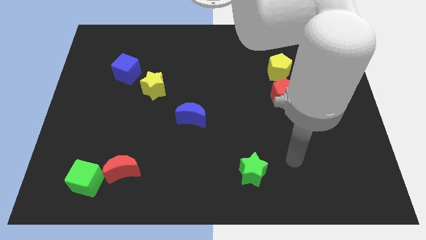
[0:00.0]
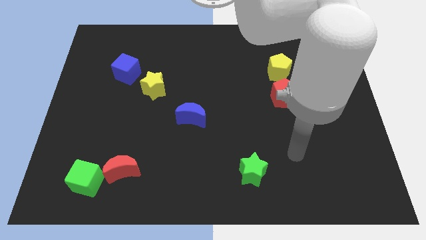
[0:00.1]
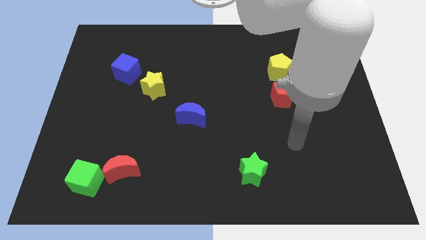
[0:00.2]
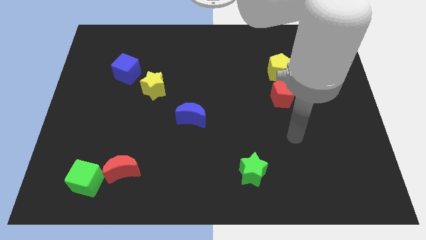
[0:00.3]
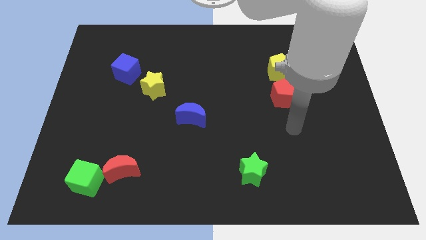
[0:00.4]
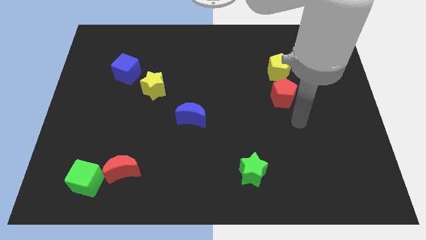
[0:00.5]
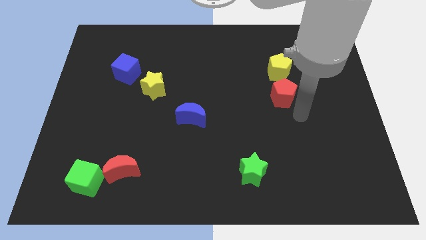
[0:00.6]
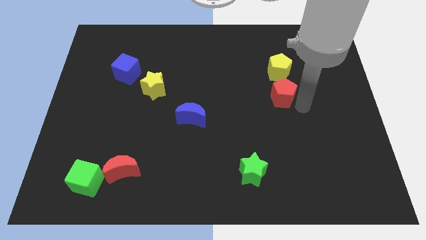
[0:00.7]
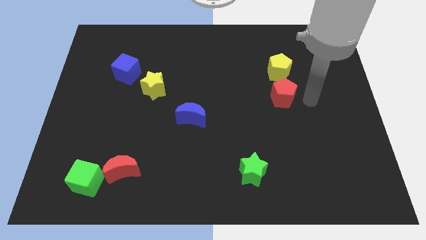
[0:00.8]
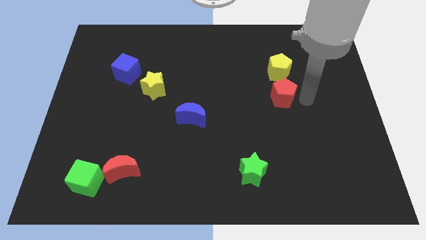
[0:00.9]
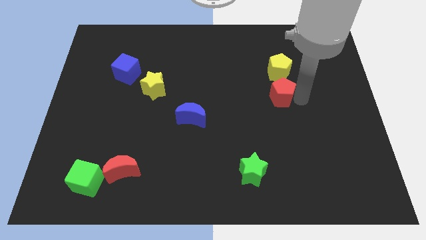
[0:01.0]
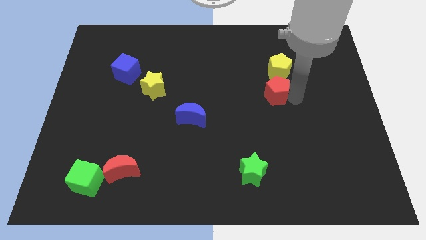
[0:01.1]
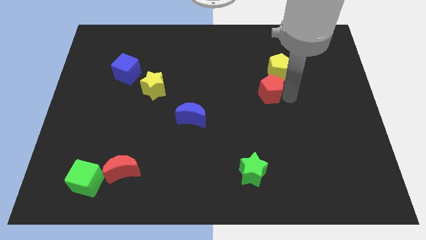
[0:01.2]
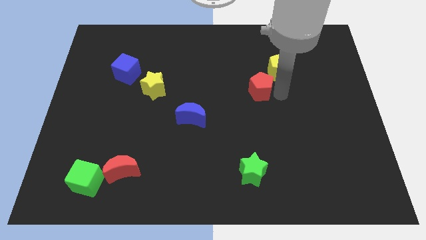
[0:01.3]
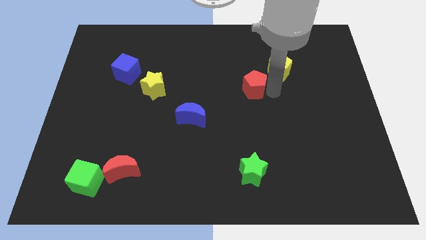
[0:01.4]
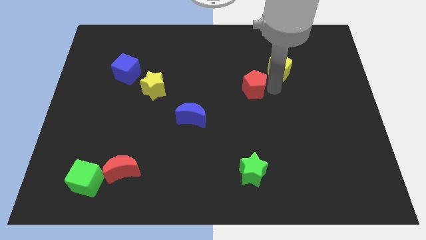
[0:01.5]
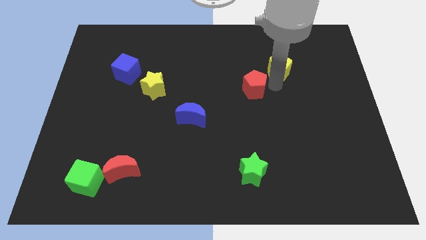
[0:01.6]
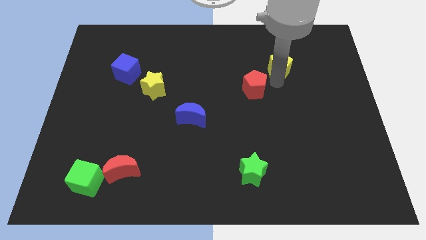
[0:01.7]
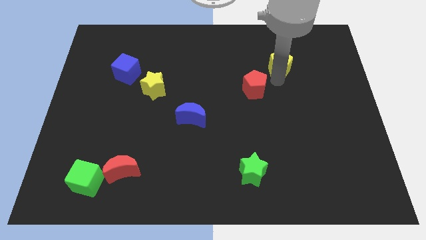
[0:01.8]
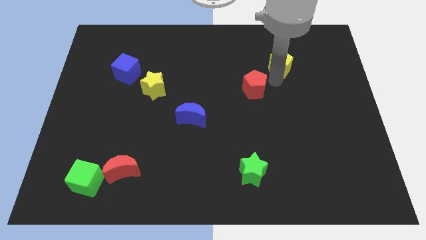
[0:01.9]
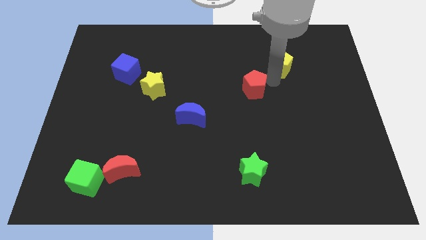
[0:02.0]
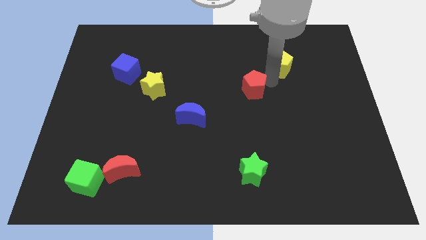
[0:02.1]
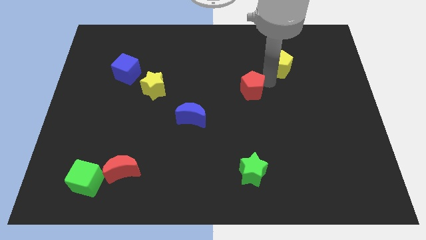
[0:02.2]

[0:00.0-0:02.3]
slide the red pentagon left a little

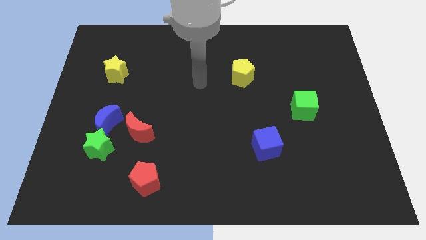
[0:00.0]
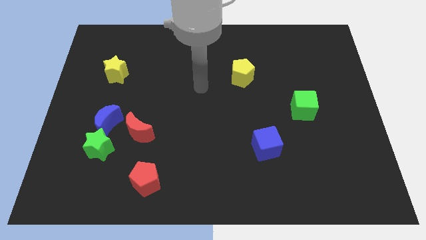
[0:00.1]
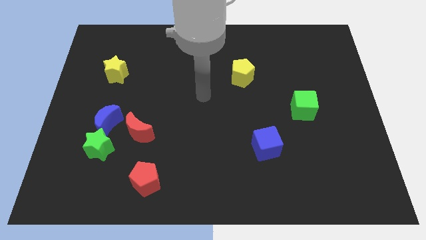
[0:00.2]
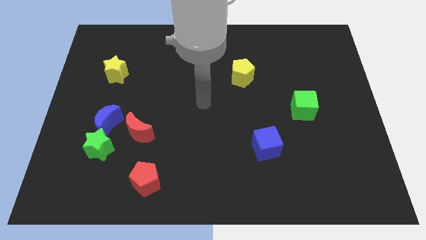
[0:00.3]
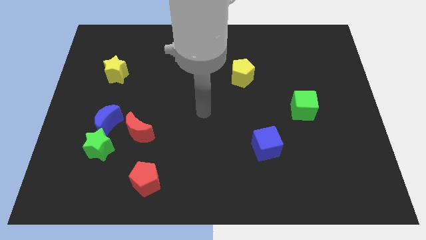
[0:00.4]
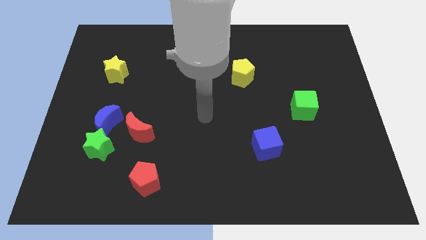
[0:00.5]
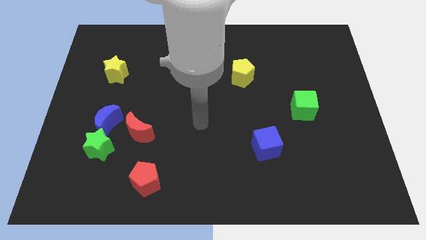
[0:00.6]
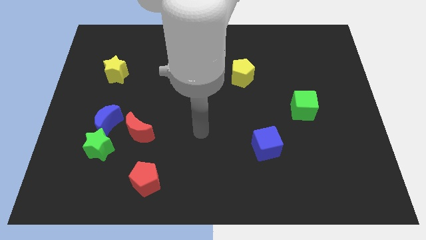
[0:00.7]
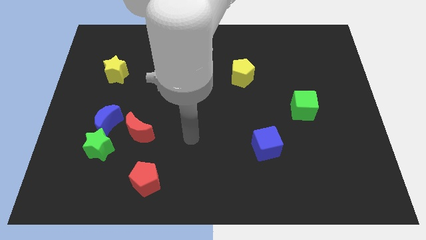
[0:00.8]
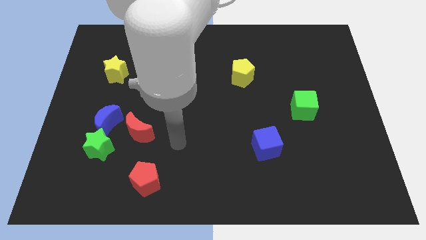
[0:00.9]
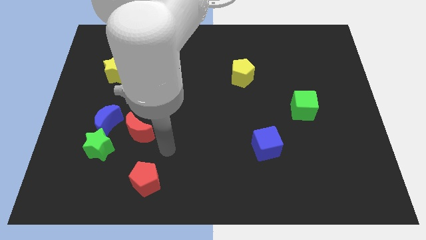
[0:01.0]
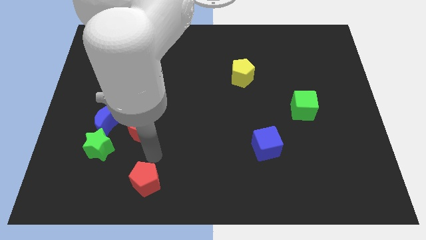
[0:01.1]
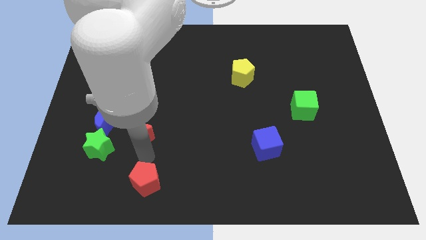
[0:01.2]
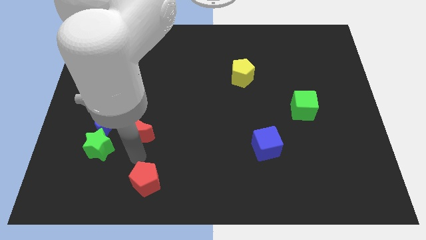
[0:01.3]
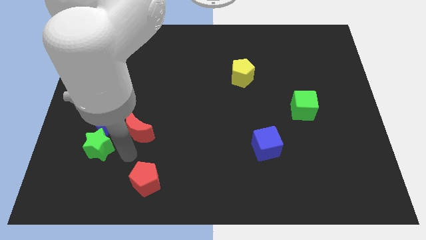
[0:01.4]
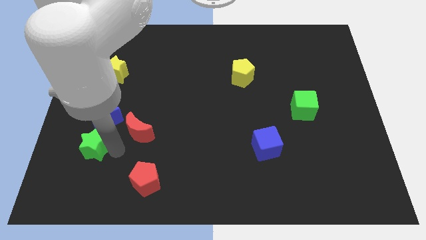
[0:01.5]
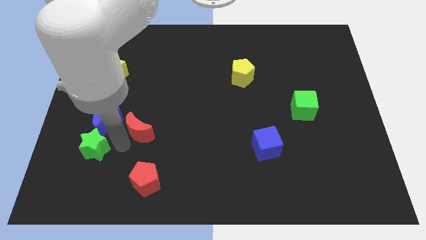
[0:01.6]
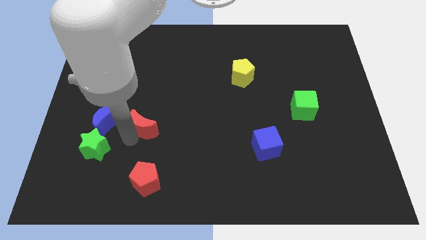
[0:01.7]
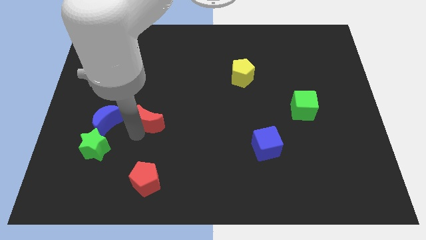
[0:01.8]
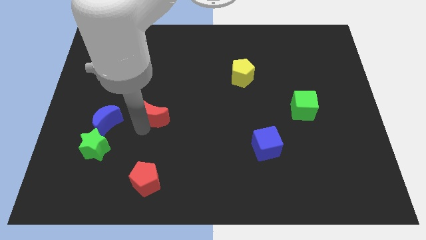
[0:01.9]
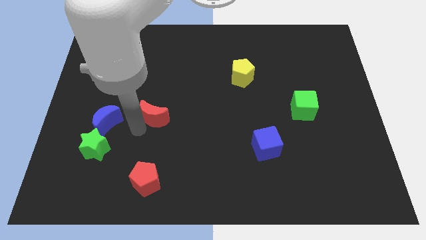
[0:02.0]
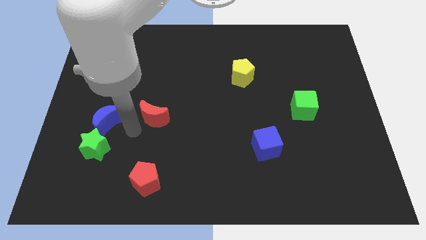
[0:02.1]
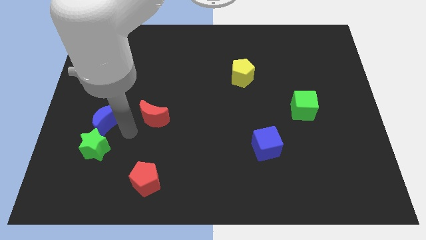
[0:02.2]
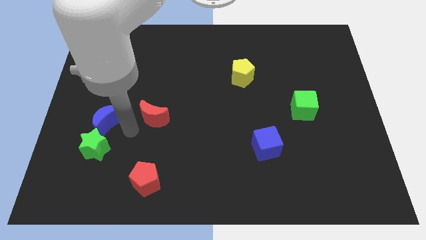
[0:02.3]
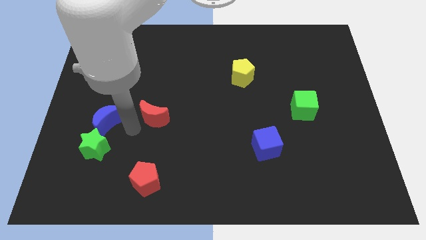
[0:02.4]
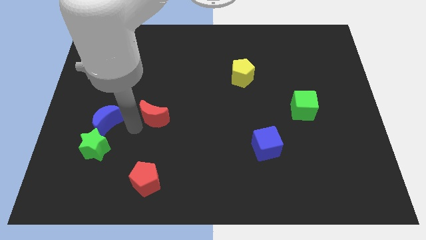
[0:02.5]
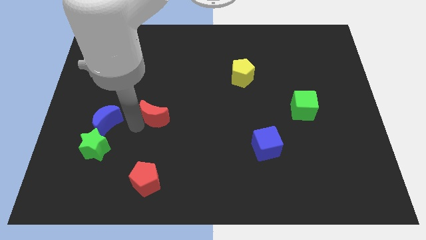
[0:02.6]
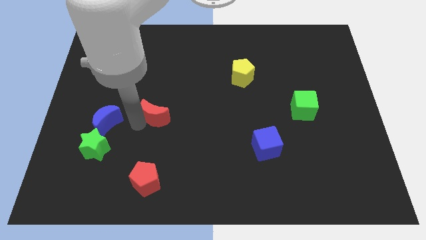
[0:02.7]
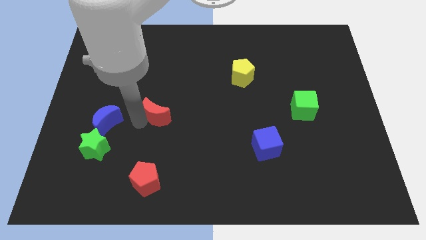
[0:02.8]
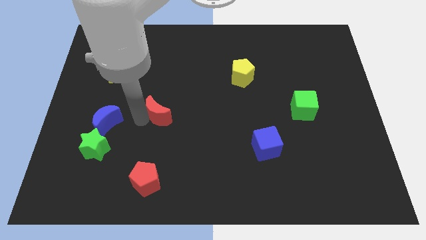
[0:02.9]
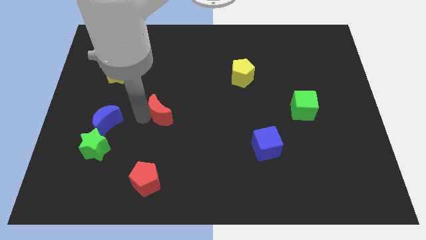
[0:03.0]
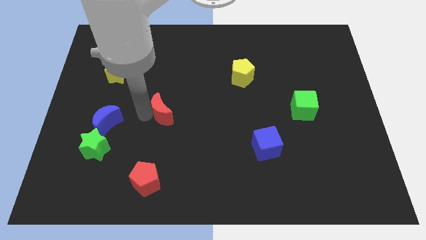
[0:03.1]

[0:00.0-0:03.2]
move the red moon upwards and then to the right a little

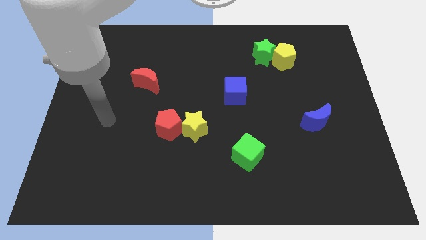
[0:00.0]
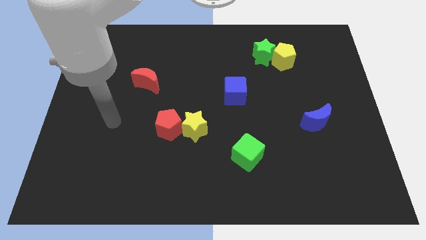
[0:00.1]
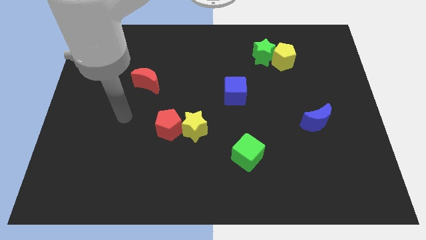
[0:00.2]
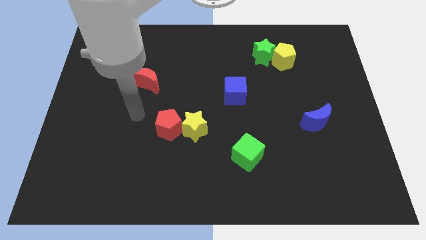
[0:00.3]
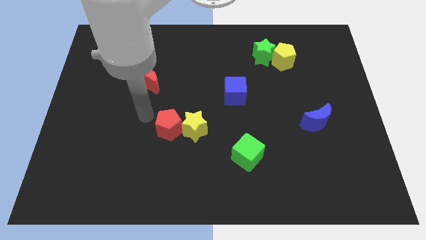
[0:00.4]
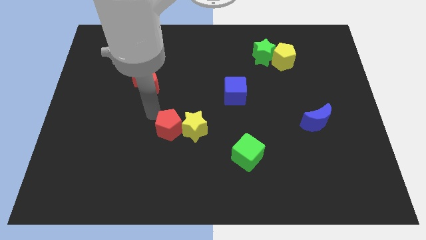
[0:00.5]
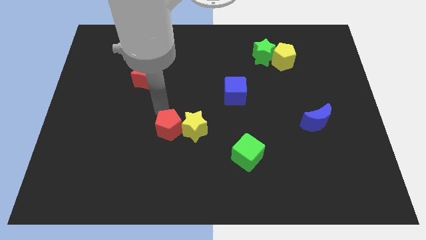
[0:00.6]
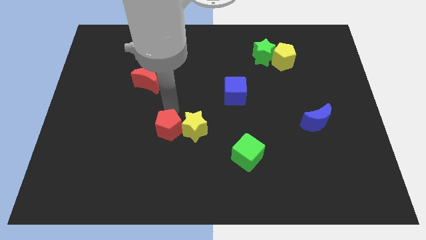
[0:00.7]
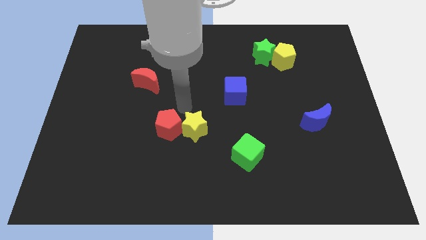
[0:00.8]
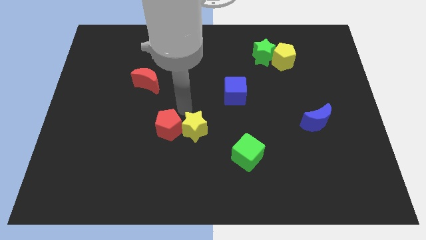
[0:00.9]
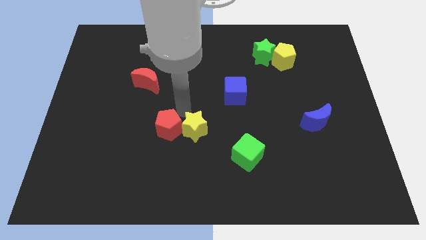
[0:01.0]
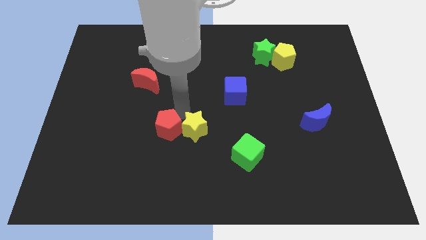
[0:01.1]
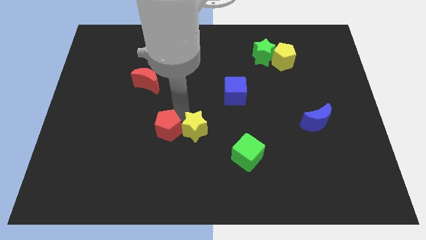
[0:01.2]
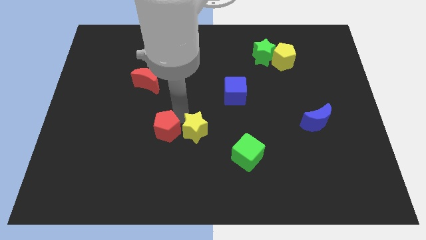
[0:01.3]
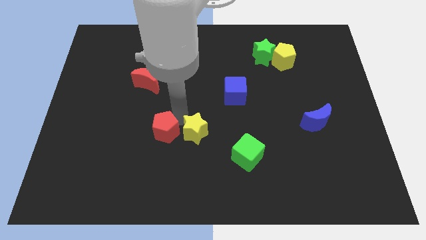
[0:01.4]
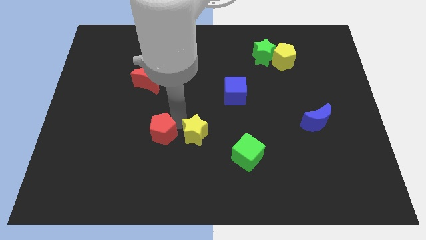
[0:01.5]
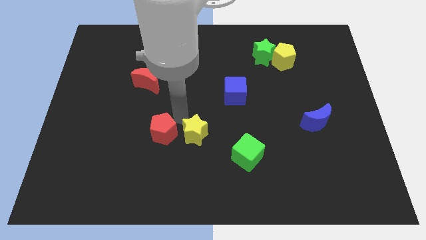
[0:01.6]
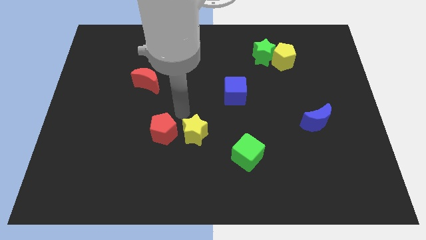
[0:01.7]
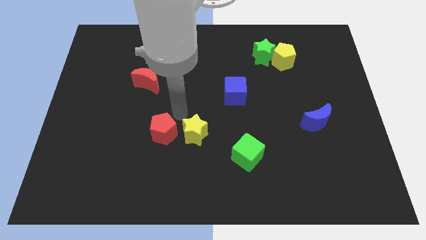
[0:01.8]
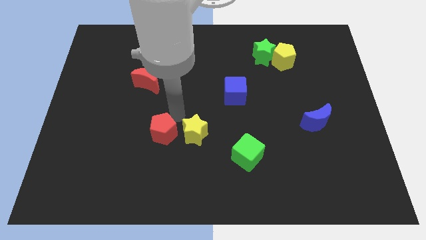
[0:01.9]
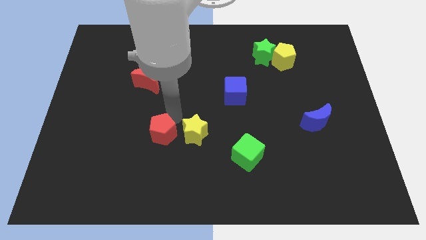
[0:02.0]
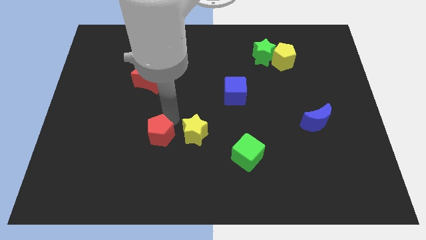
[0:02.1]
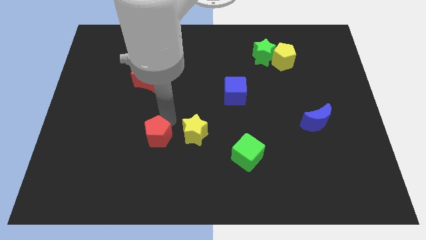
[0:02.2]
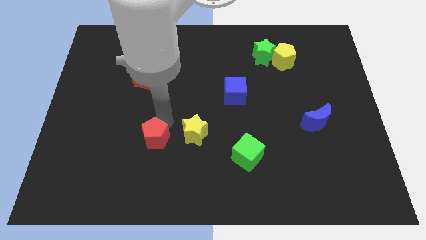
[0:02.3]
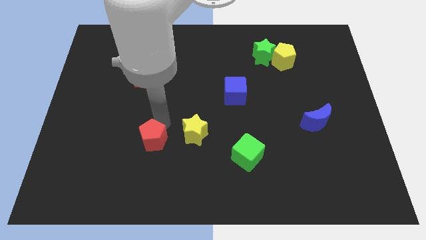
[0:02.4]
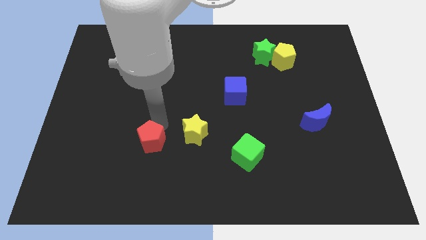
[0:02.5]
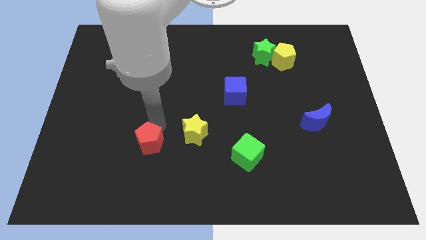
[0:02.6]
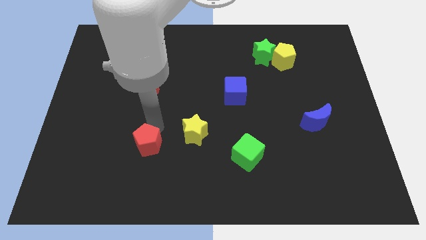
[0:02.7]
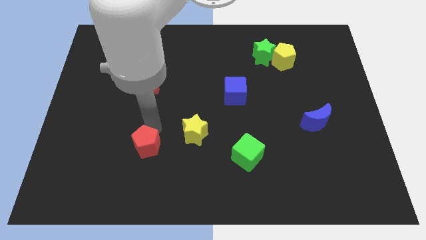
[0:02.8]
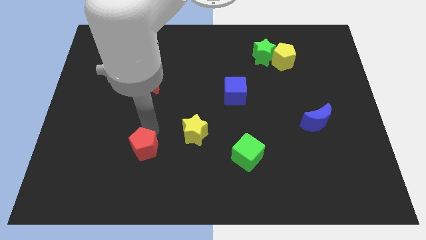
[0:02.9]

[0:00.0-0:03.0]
move the red pentagon a little down and left
